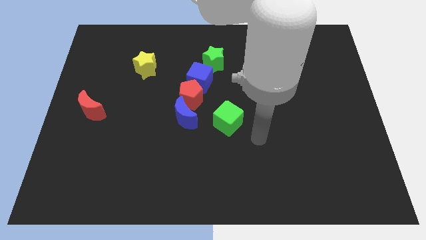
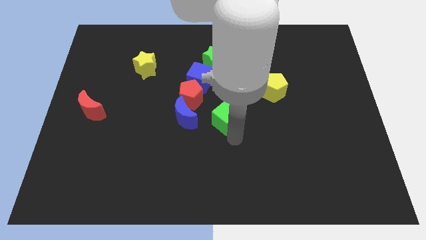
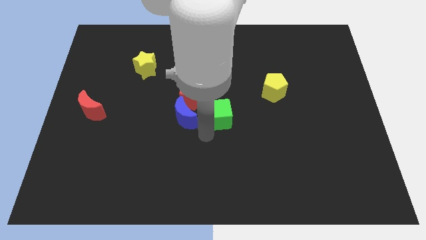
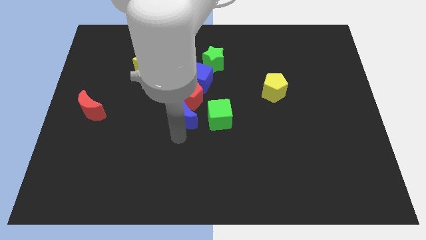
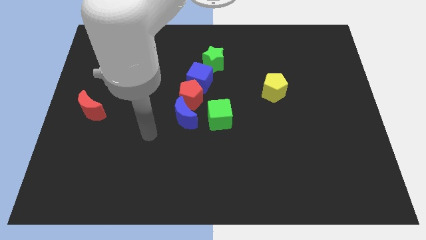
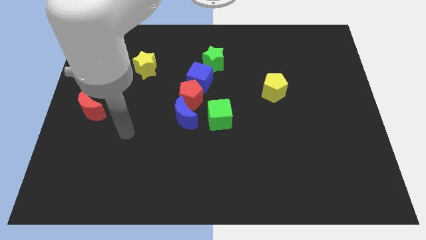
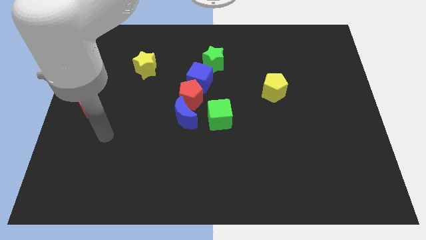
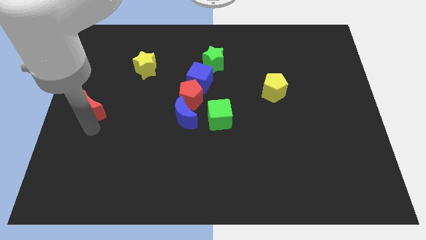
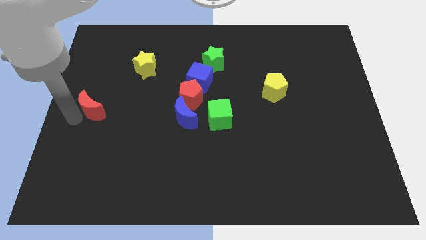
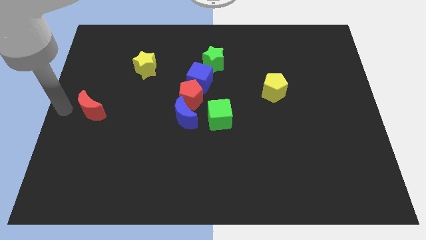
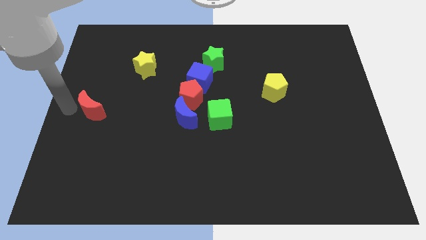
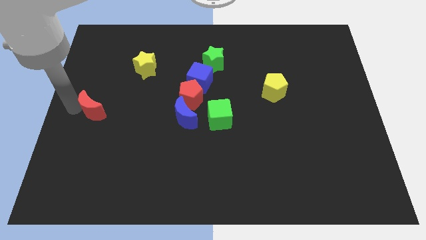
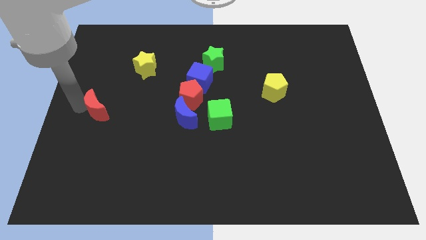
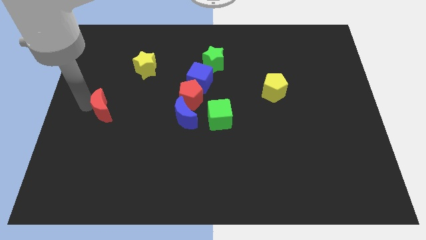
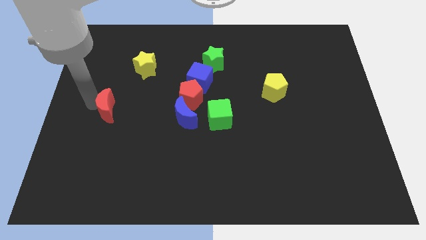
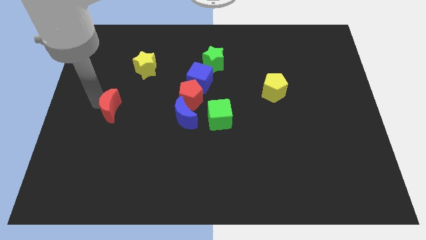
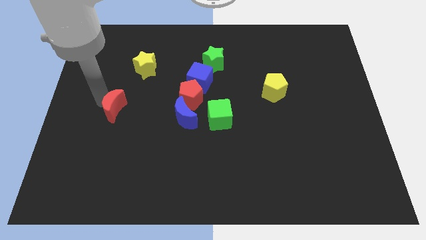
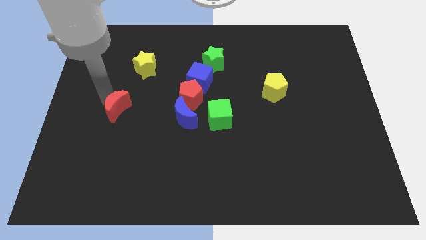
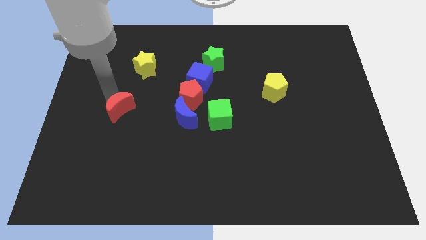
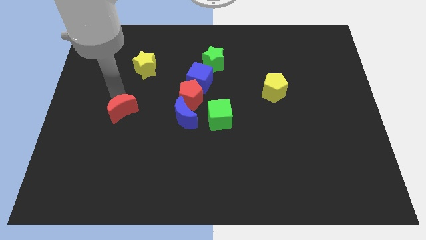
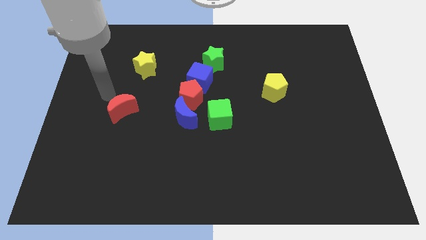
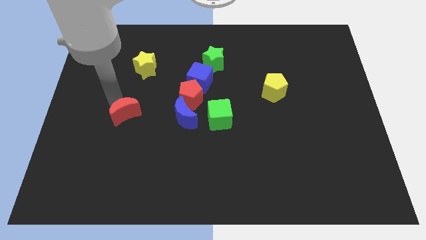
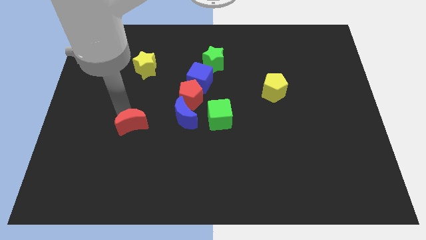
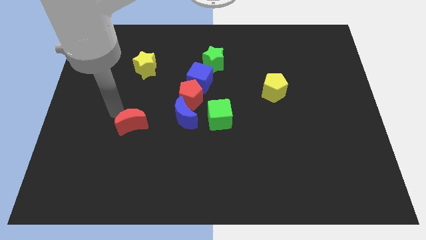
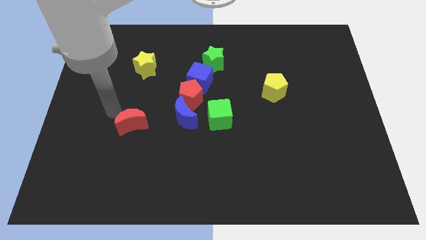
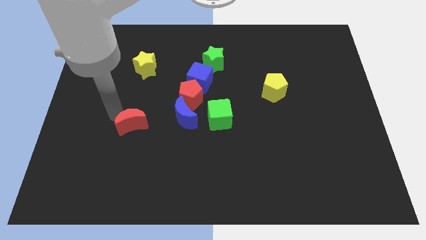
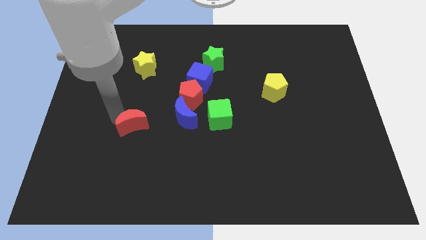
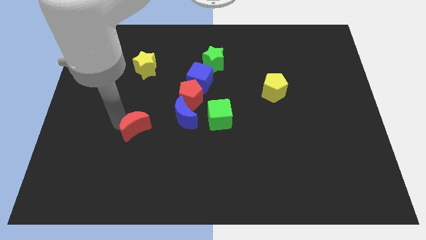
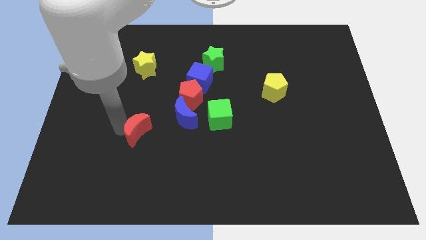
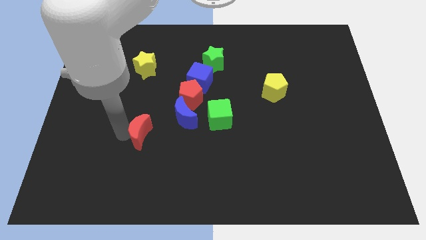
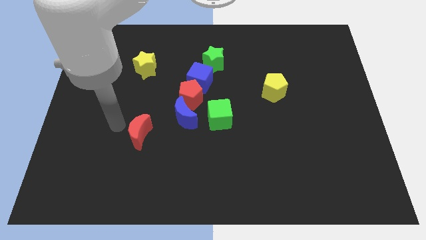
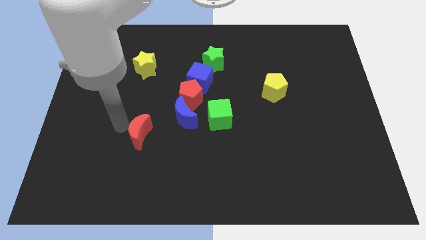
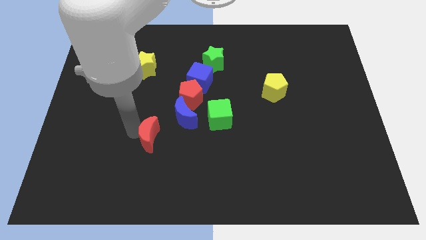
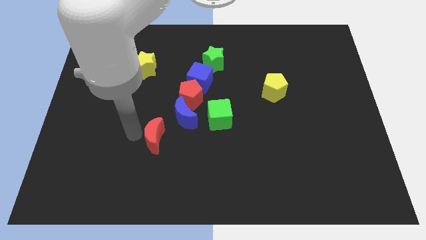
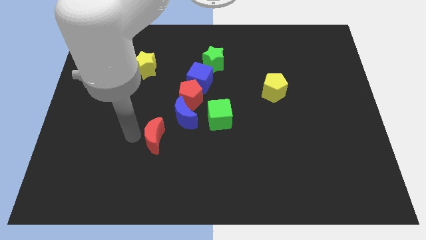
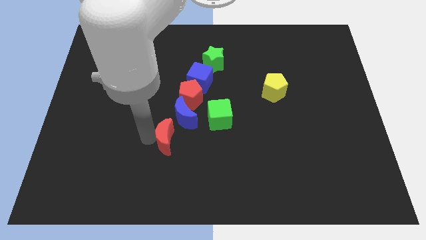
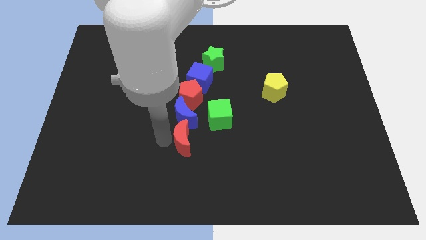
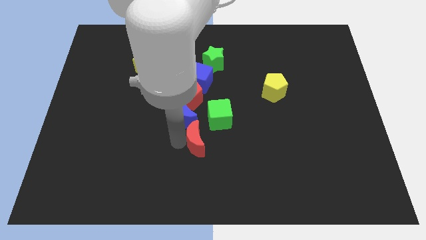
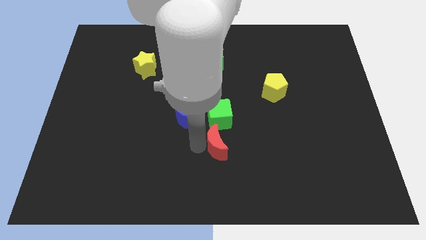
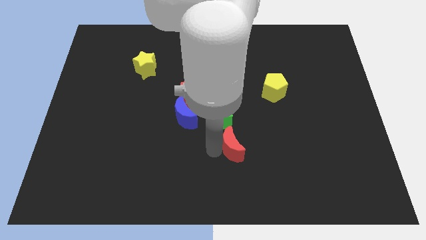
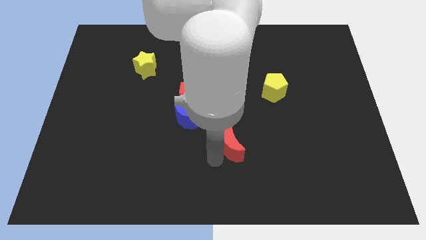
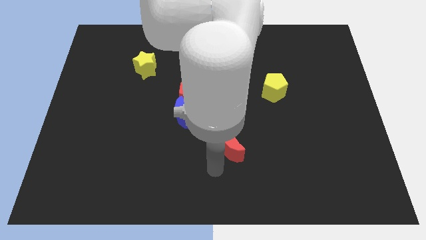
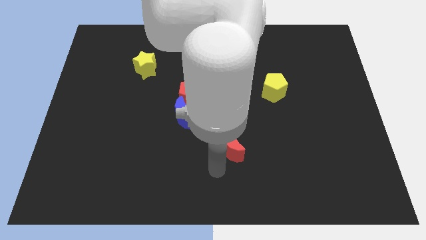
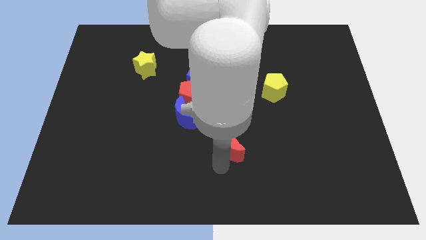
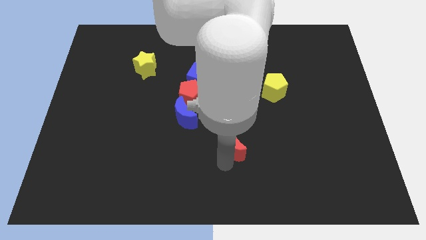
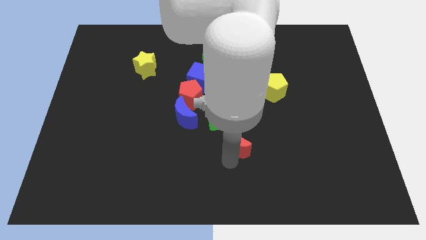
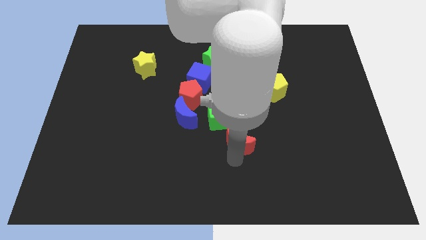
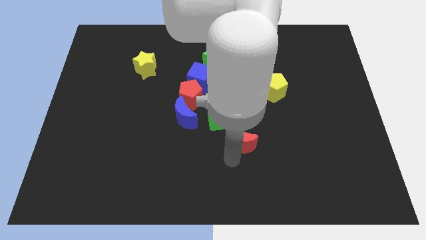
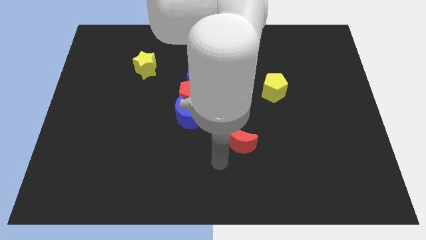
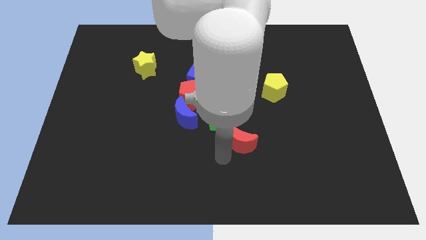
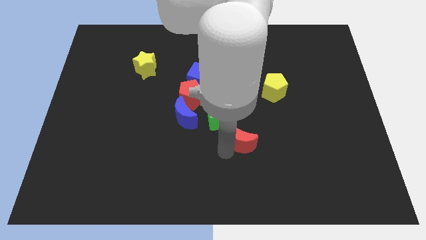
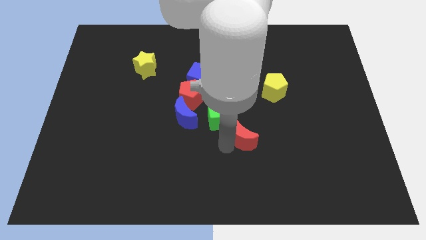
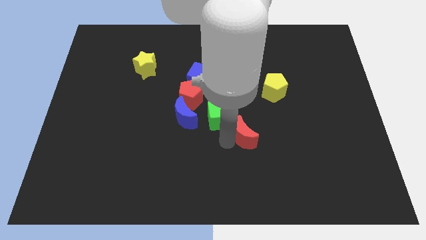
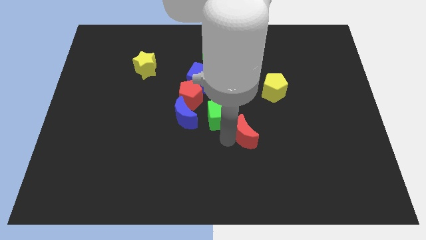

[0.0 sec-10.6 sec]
move the red moon to the right side of the green cube

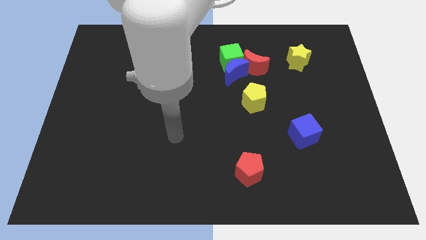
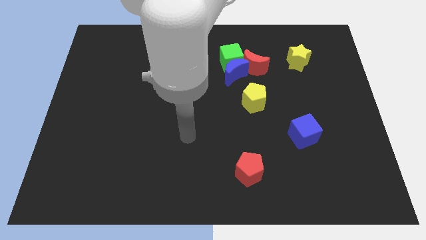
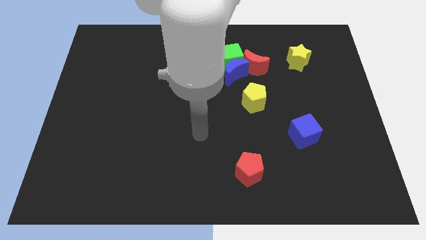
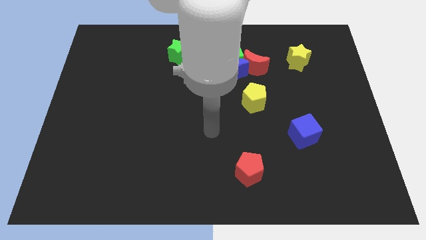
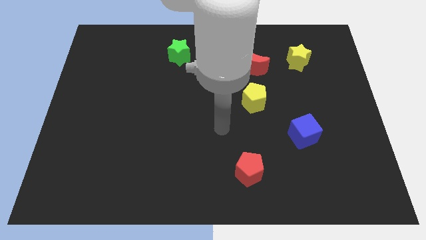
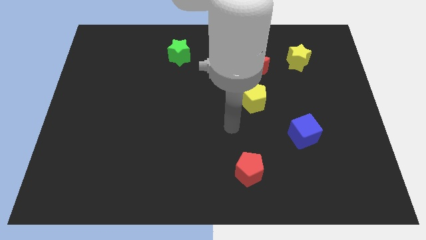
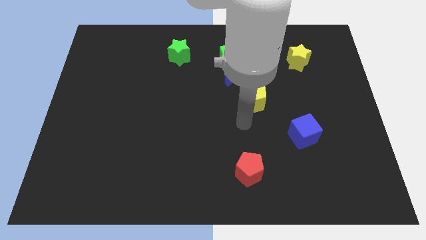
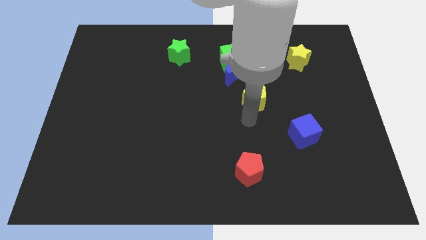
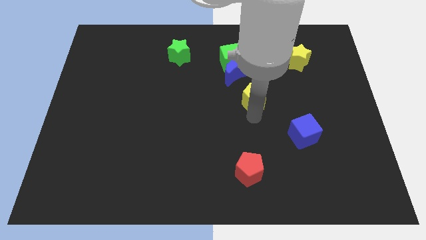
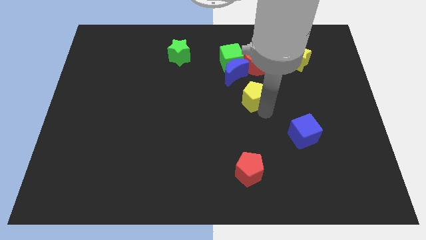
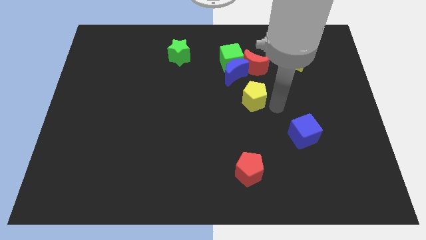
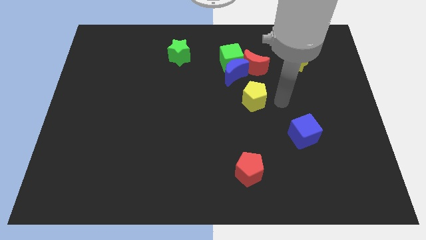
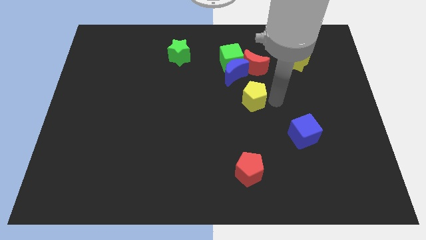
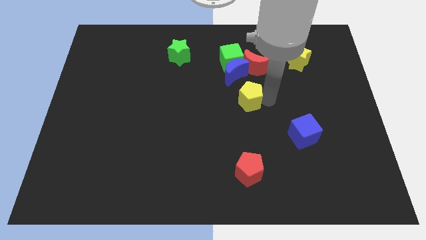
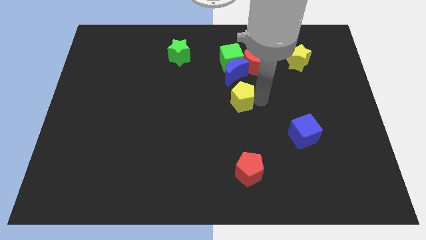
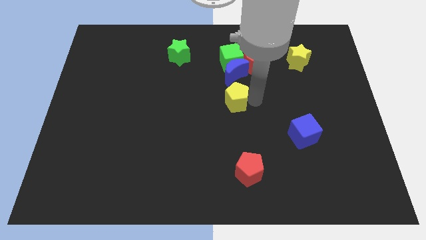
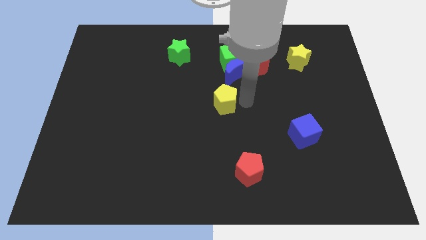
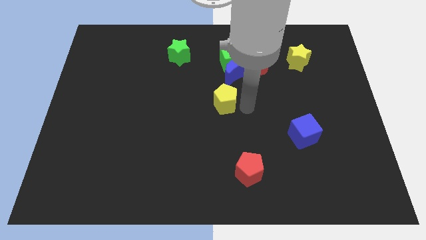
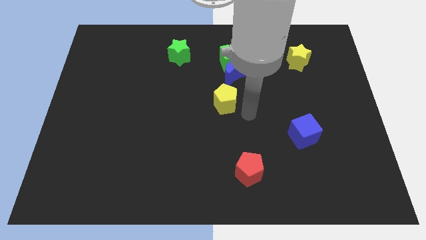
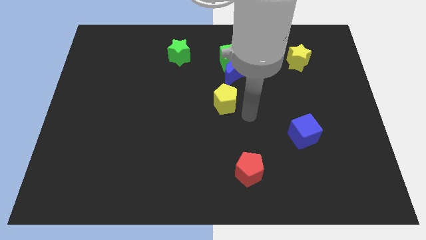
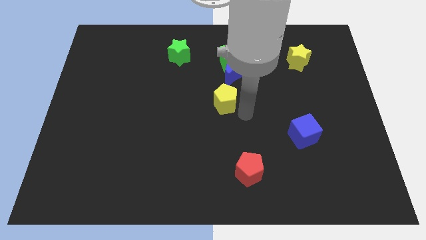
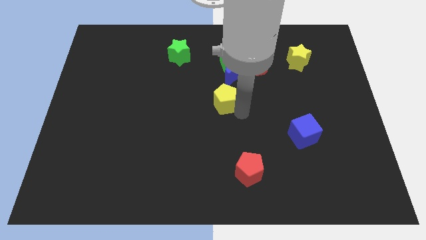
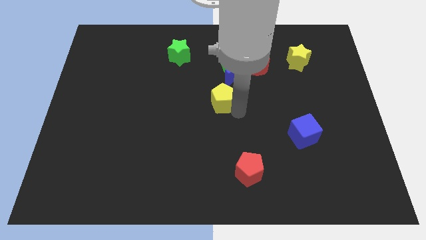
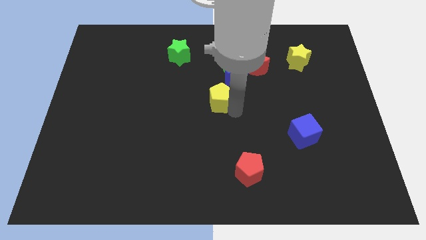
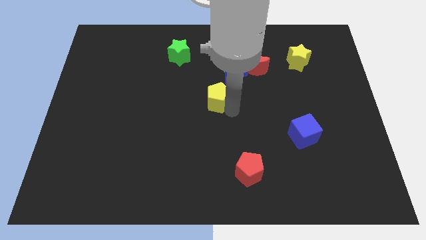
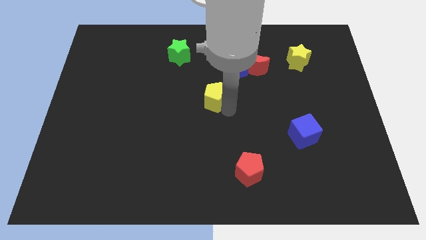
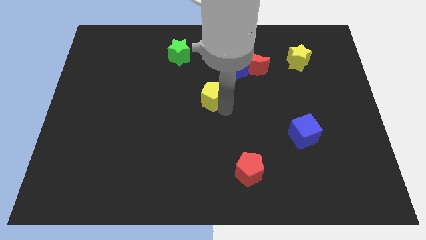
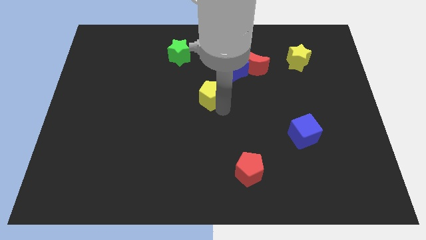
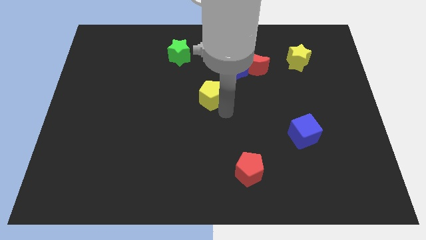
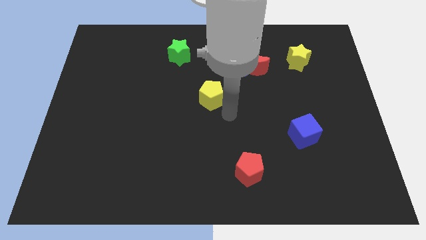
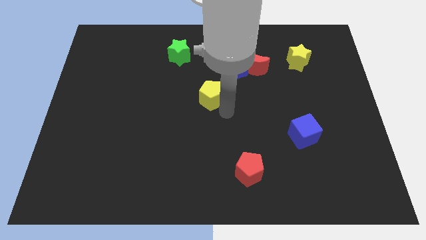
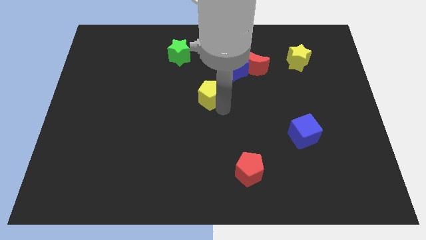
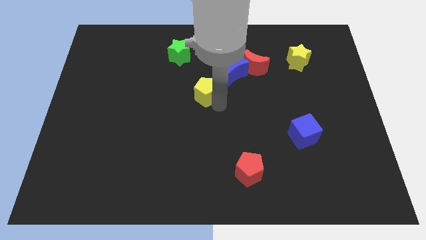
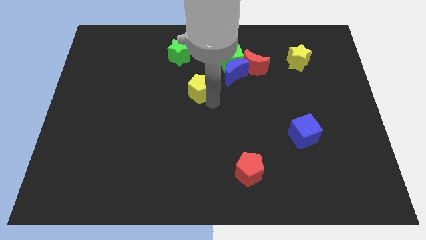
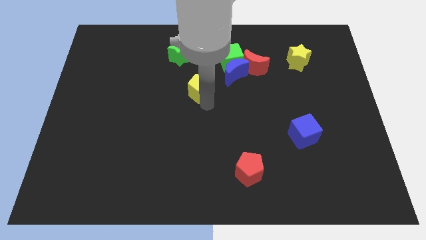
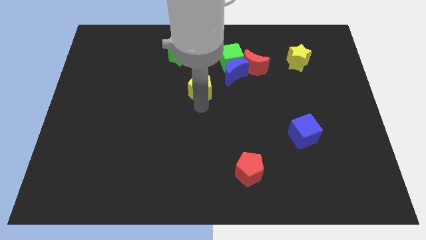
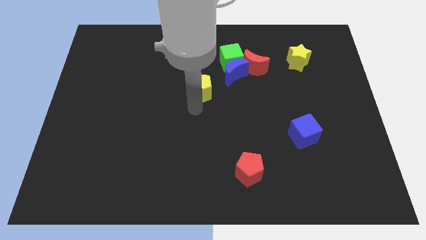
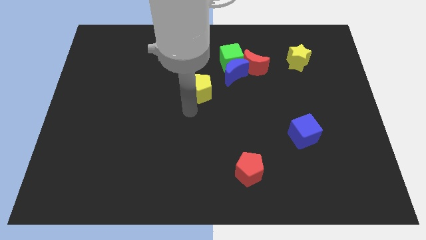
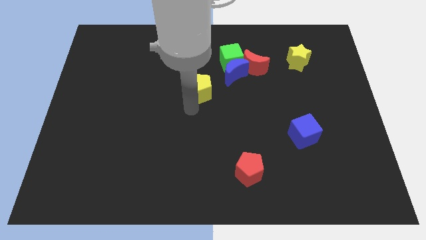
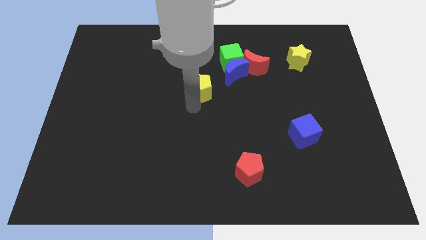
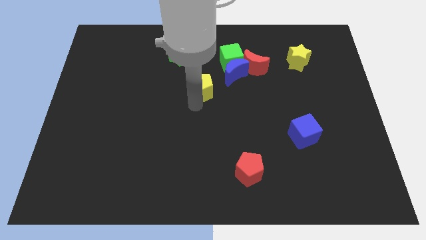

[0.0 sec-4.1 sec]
slide the yellow pentagon to the bottom left of the green cube
